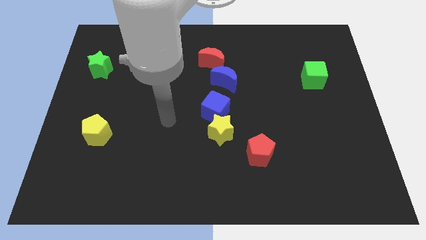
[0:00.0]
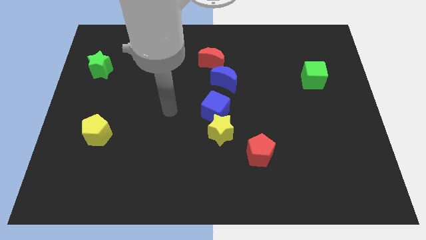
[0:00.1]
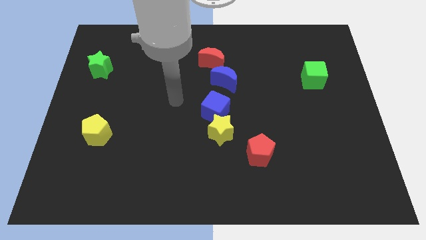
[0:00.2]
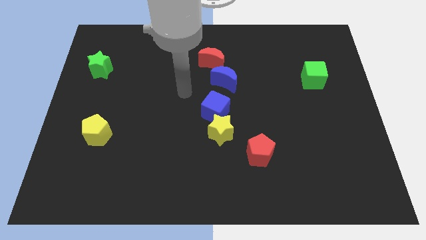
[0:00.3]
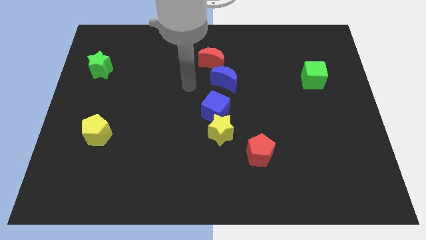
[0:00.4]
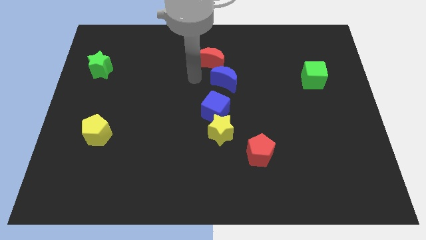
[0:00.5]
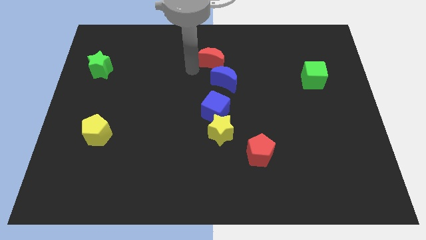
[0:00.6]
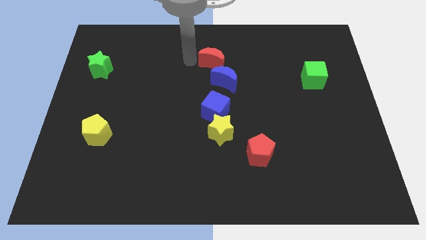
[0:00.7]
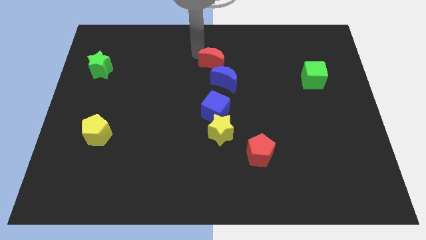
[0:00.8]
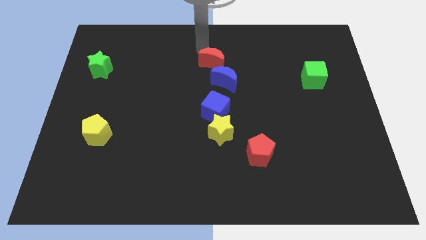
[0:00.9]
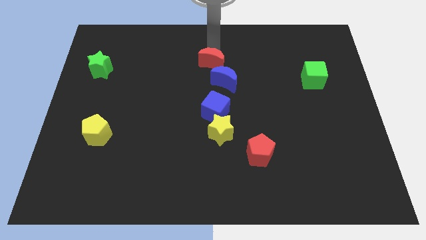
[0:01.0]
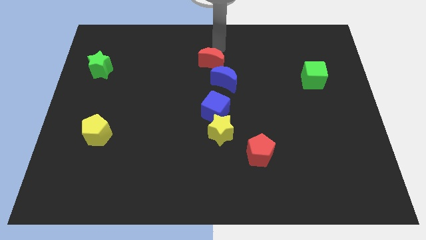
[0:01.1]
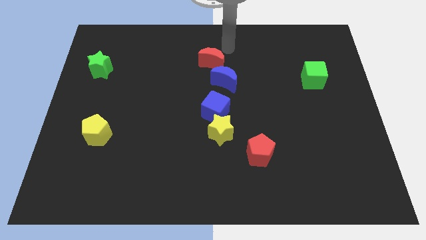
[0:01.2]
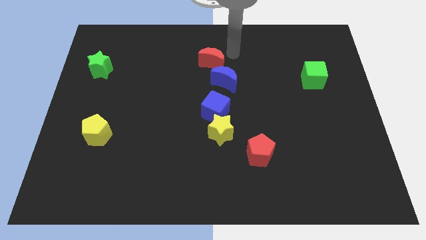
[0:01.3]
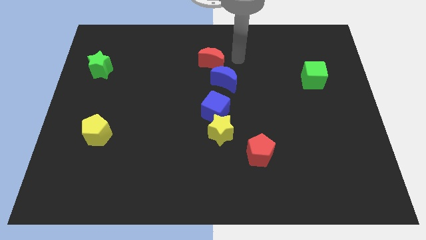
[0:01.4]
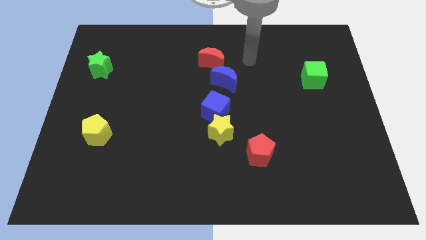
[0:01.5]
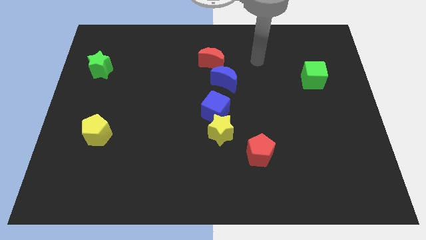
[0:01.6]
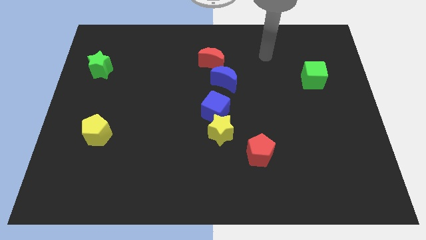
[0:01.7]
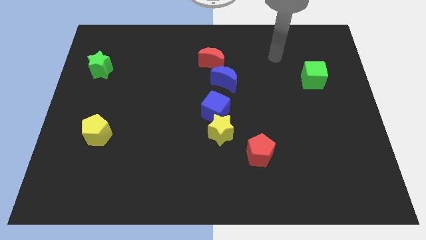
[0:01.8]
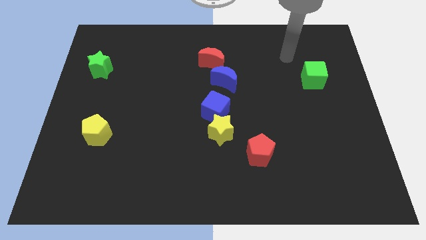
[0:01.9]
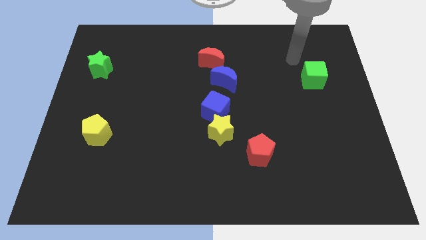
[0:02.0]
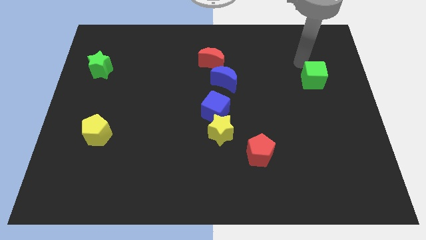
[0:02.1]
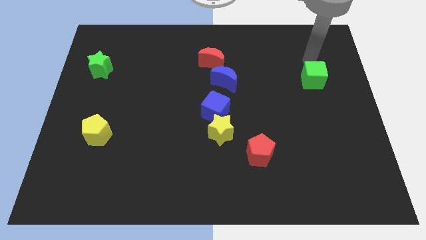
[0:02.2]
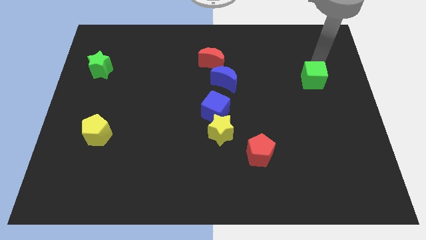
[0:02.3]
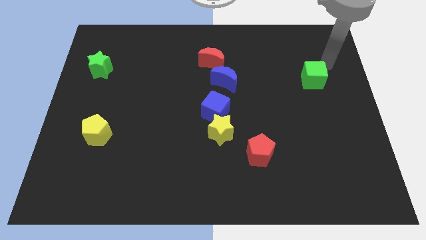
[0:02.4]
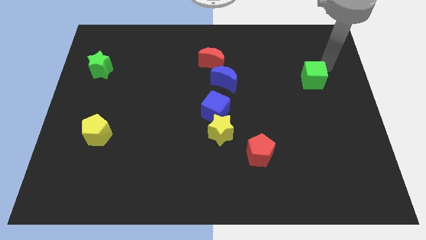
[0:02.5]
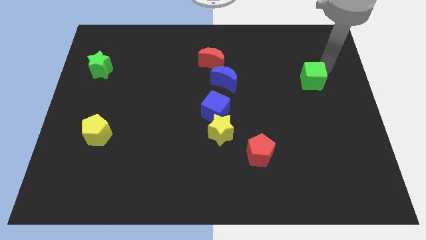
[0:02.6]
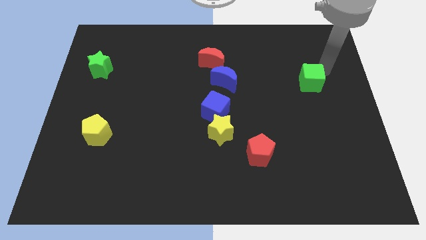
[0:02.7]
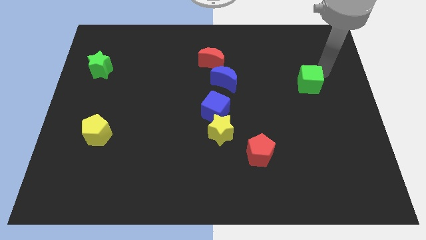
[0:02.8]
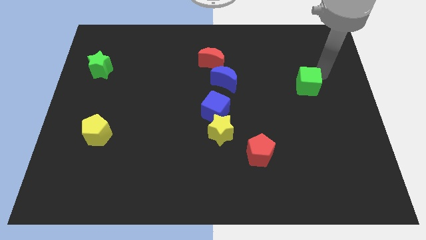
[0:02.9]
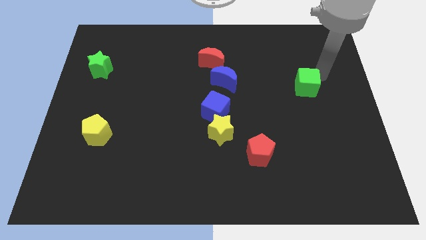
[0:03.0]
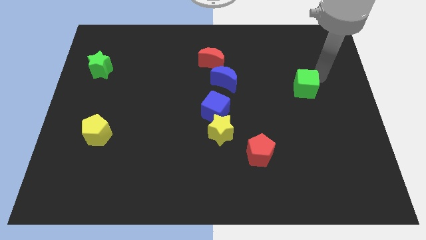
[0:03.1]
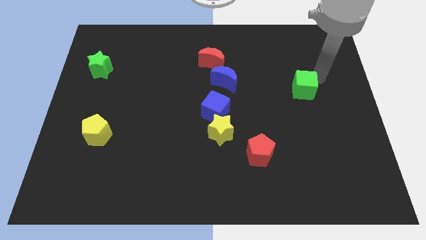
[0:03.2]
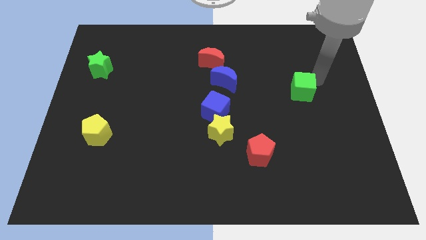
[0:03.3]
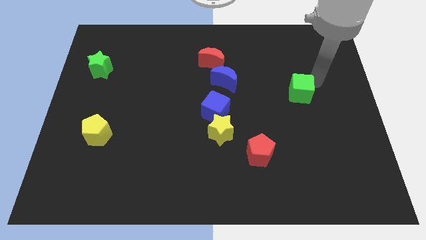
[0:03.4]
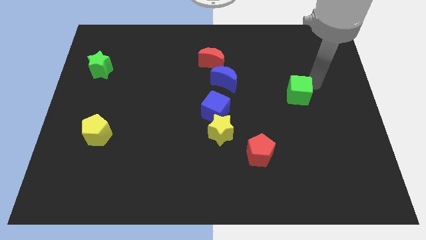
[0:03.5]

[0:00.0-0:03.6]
slightly push the green cube downwards and then left

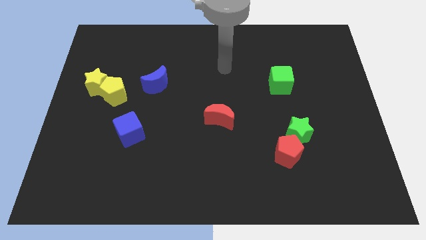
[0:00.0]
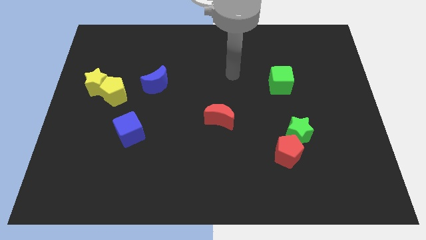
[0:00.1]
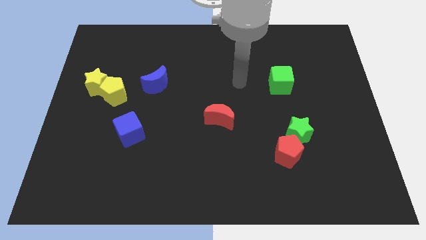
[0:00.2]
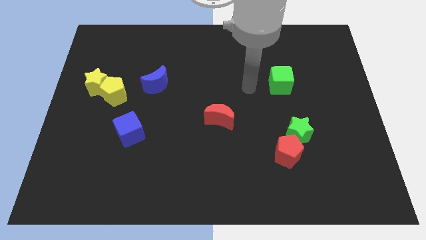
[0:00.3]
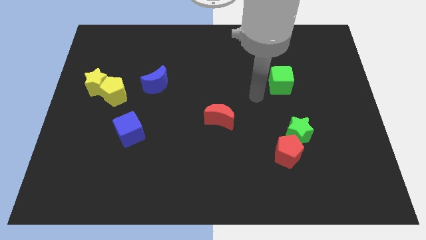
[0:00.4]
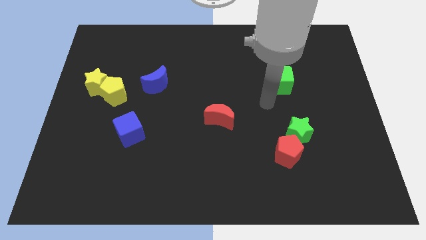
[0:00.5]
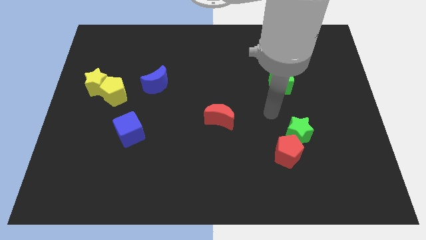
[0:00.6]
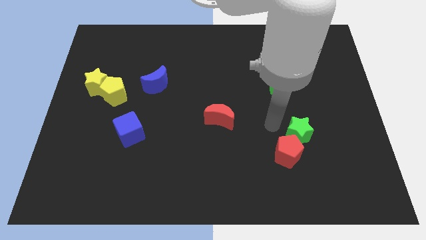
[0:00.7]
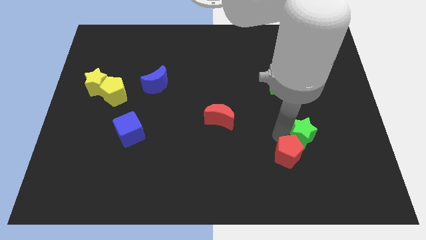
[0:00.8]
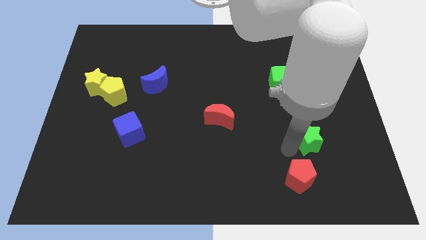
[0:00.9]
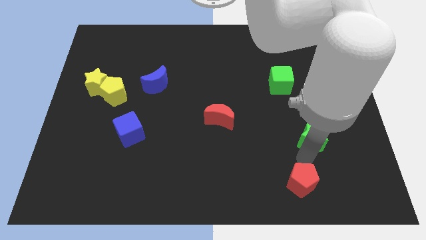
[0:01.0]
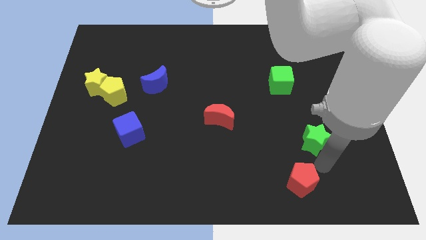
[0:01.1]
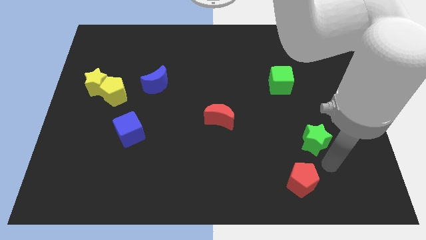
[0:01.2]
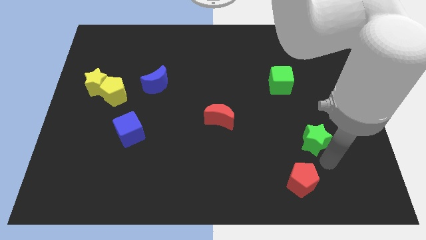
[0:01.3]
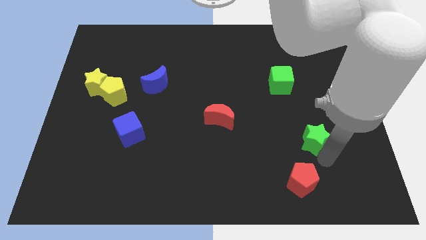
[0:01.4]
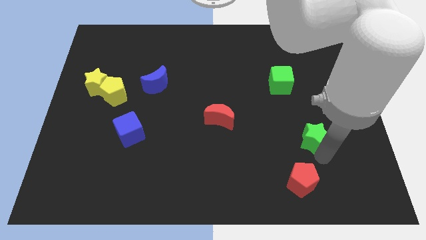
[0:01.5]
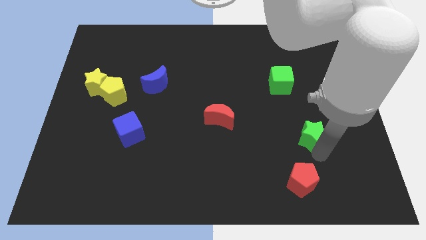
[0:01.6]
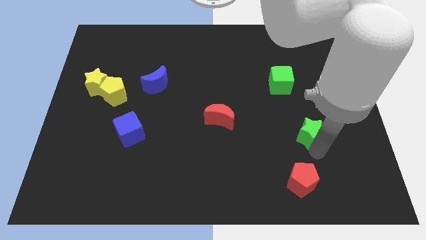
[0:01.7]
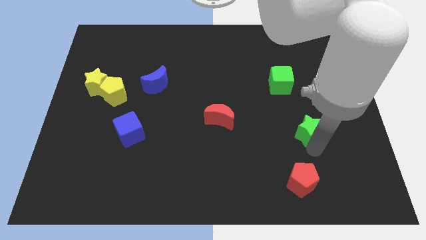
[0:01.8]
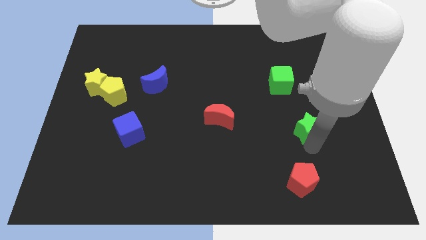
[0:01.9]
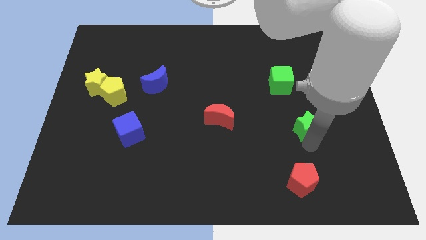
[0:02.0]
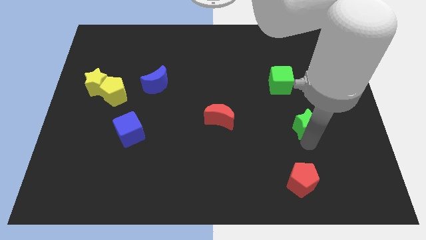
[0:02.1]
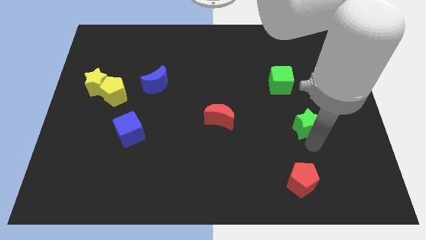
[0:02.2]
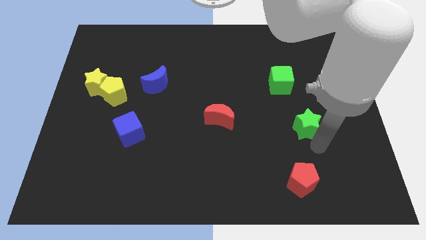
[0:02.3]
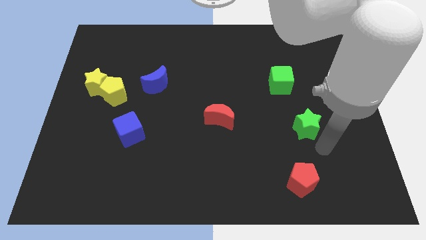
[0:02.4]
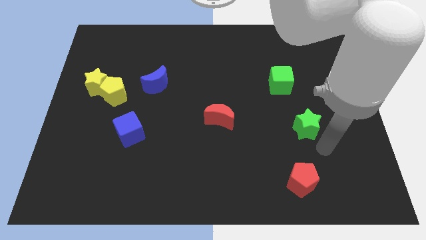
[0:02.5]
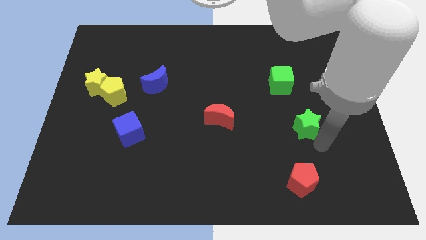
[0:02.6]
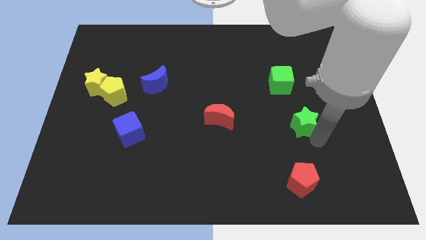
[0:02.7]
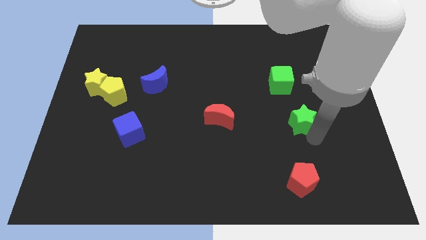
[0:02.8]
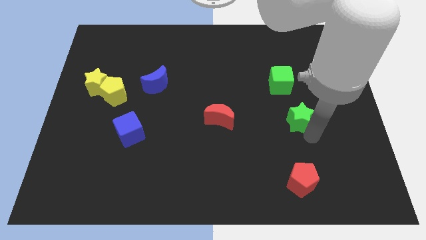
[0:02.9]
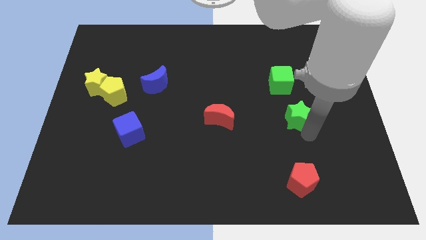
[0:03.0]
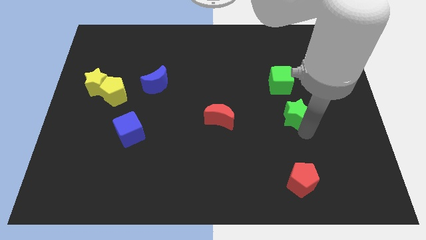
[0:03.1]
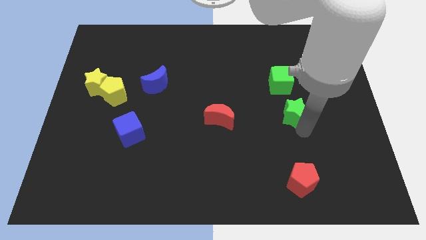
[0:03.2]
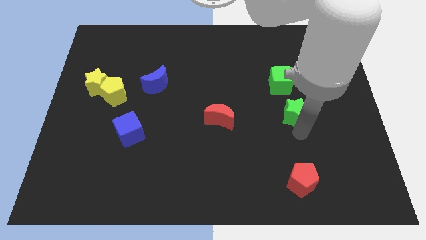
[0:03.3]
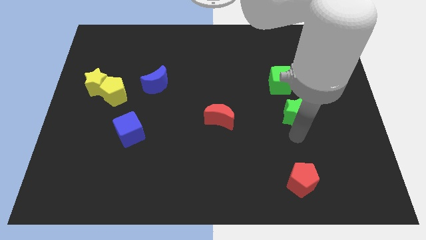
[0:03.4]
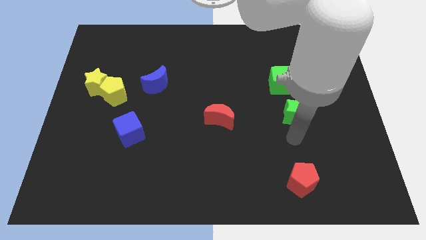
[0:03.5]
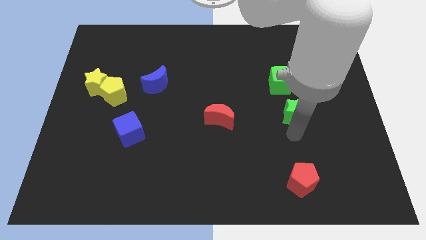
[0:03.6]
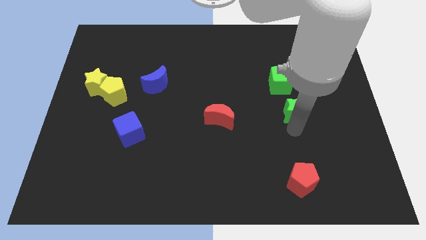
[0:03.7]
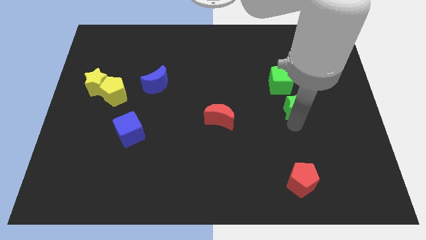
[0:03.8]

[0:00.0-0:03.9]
push the green star upwards a little bit

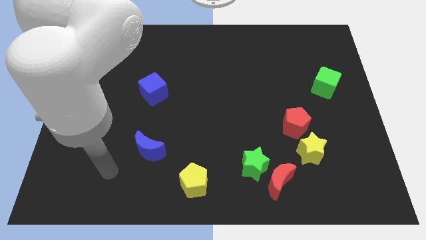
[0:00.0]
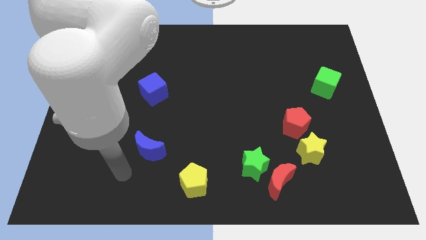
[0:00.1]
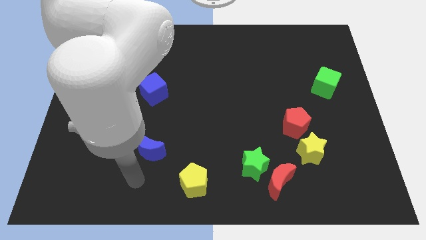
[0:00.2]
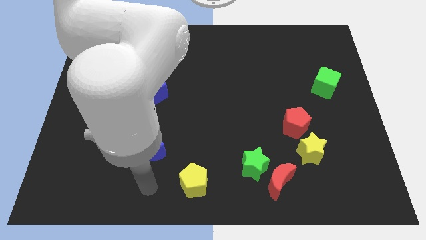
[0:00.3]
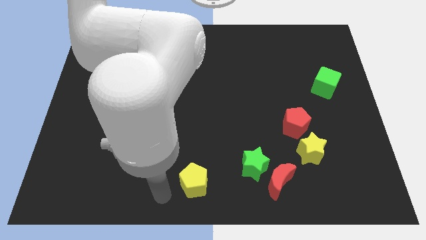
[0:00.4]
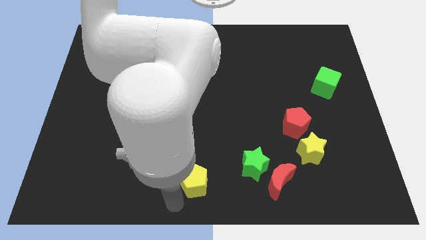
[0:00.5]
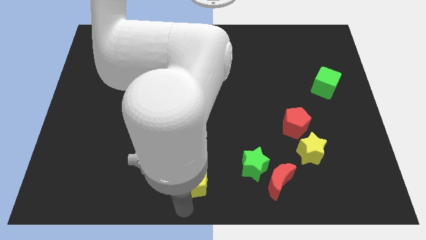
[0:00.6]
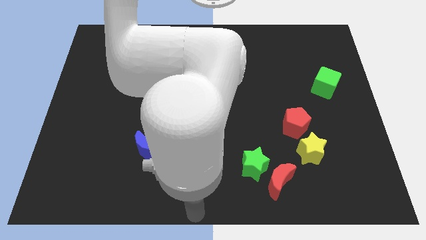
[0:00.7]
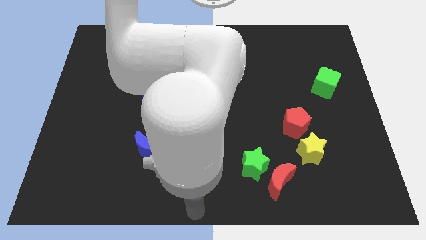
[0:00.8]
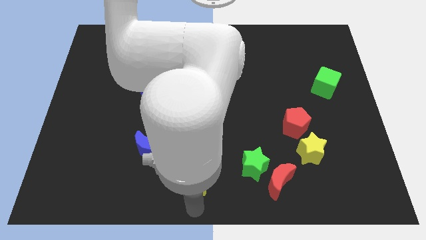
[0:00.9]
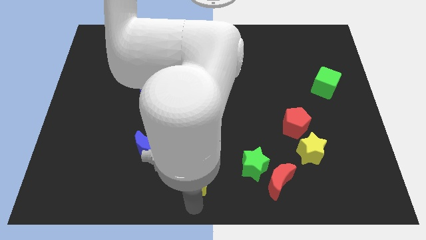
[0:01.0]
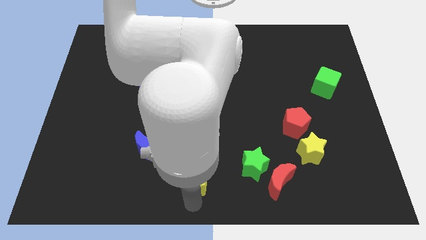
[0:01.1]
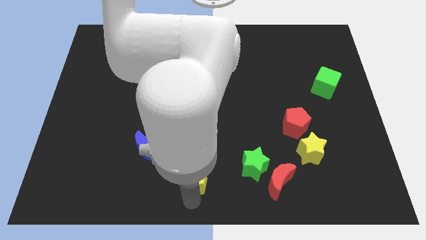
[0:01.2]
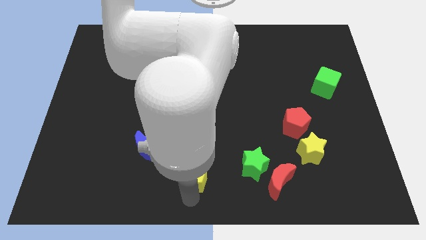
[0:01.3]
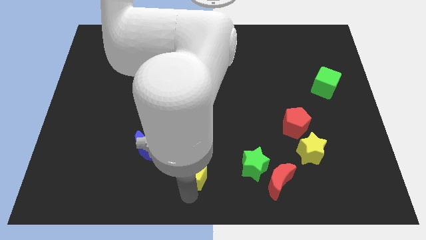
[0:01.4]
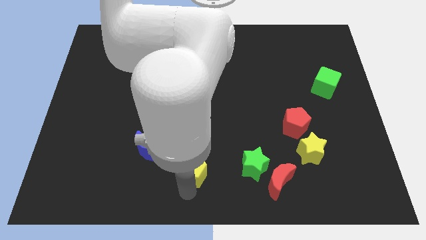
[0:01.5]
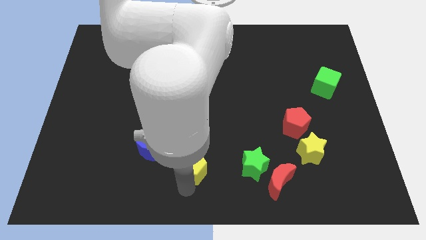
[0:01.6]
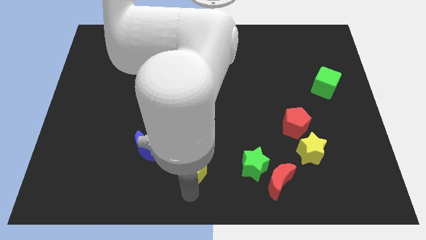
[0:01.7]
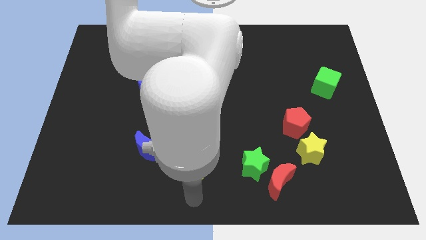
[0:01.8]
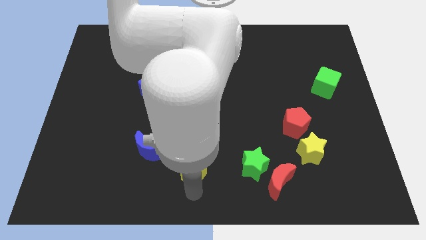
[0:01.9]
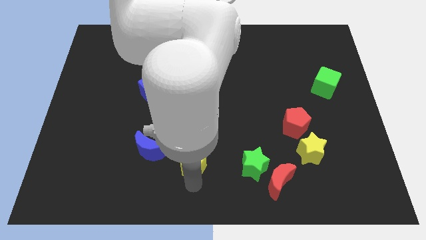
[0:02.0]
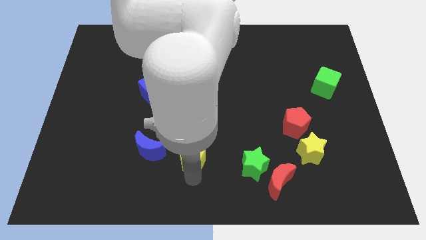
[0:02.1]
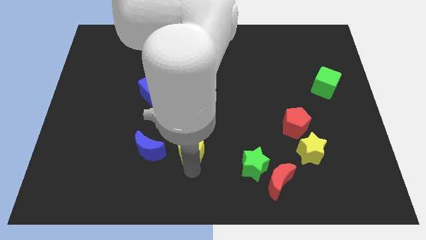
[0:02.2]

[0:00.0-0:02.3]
slightly slide the yellow pentagon up
